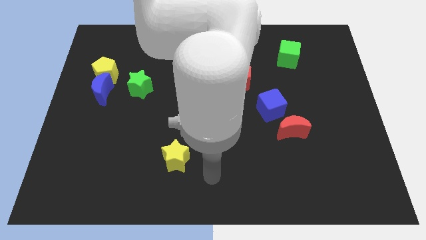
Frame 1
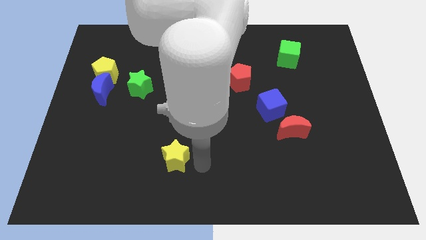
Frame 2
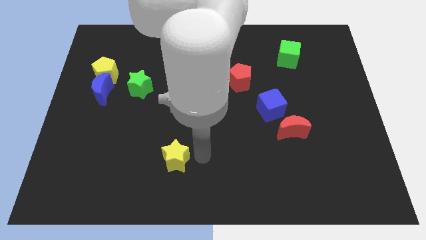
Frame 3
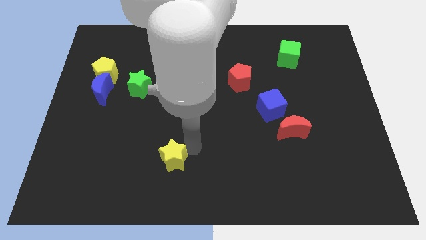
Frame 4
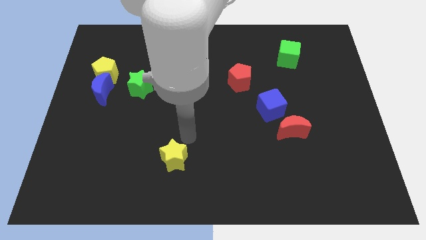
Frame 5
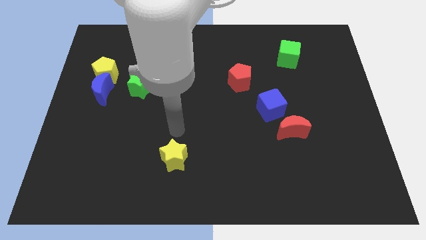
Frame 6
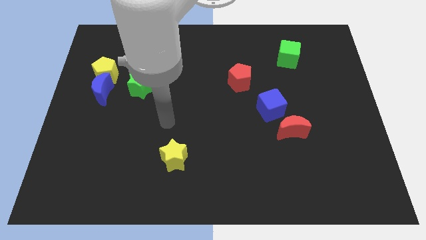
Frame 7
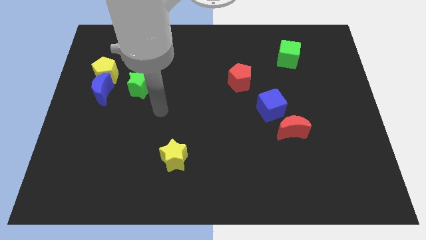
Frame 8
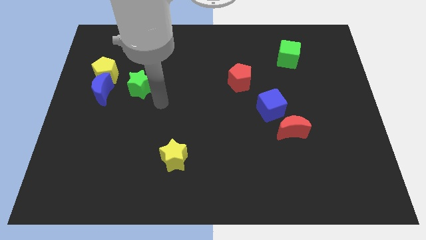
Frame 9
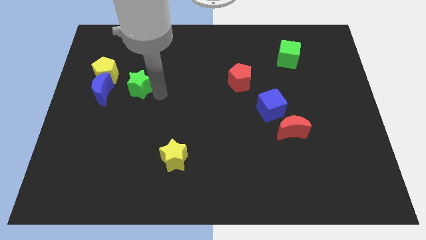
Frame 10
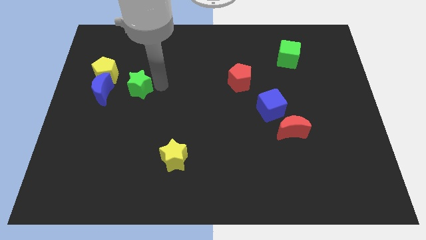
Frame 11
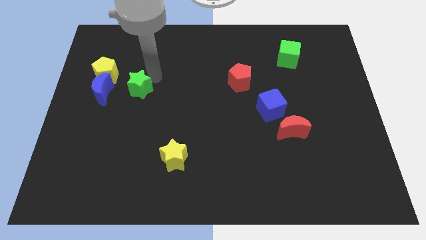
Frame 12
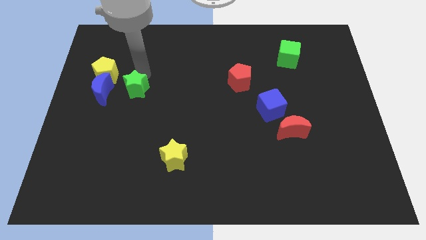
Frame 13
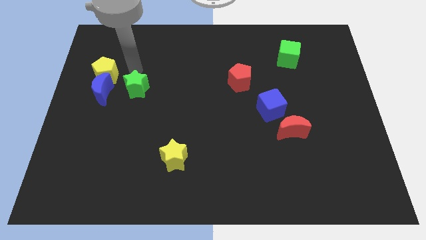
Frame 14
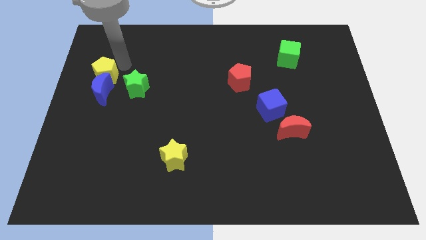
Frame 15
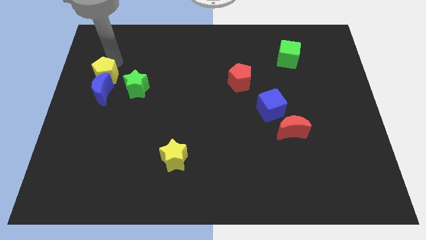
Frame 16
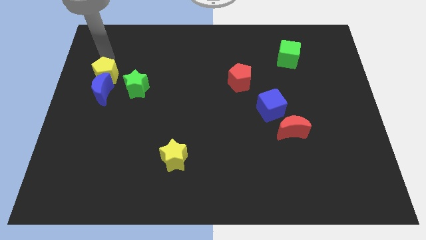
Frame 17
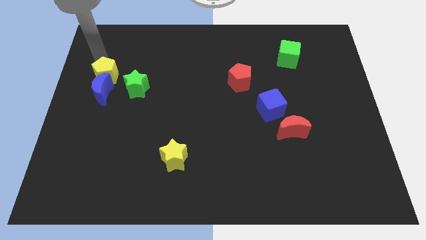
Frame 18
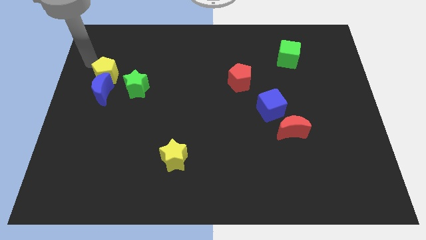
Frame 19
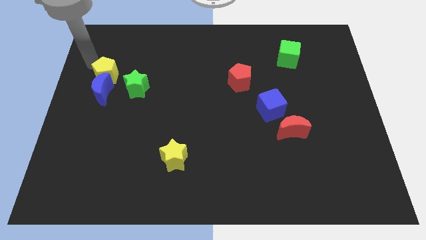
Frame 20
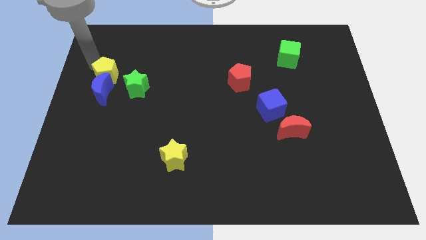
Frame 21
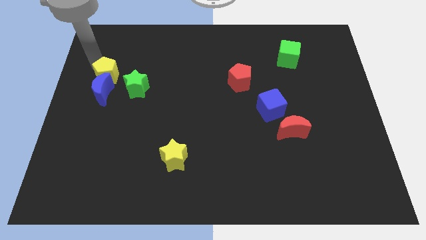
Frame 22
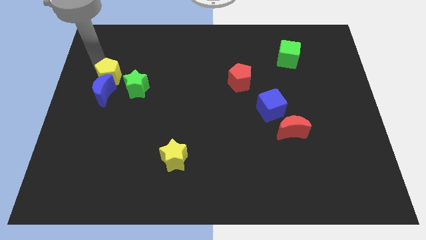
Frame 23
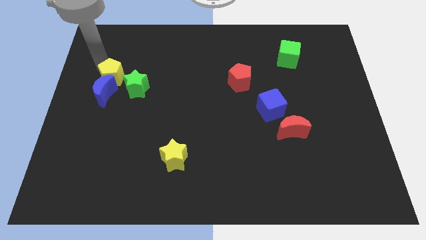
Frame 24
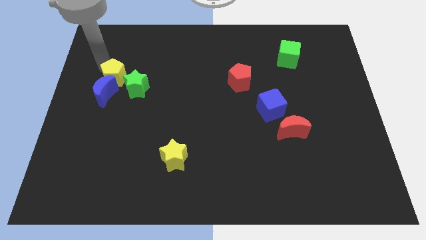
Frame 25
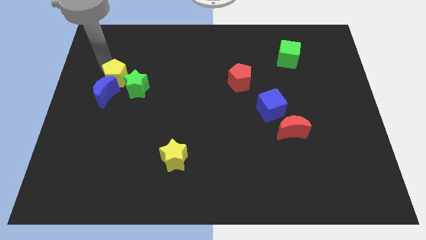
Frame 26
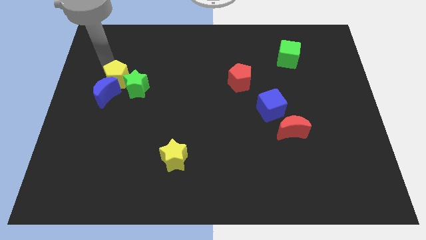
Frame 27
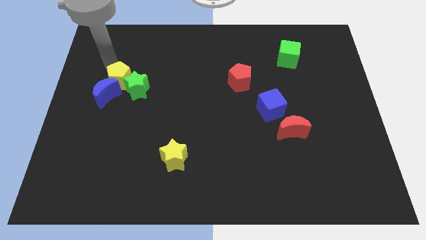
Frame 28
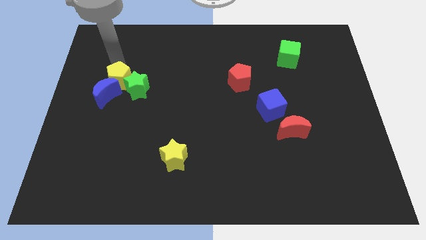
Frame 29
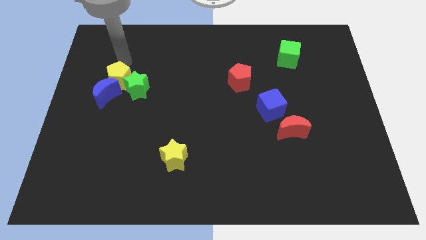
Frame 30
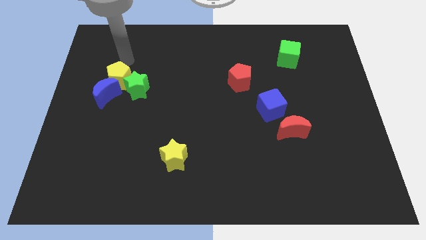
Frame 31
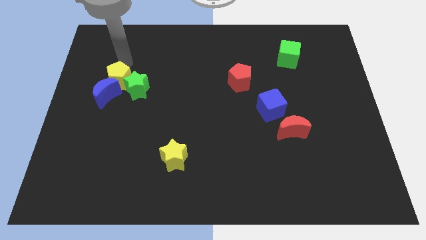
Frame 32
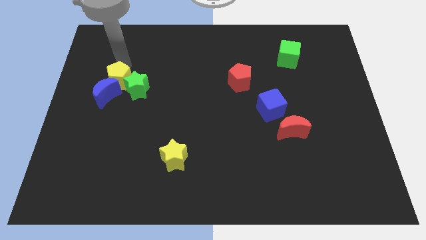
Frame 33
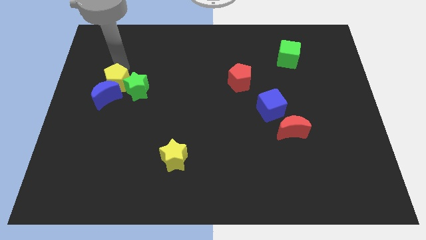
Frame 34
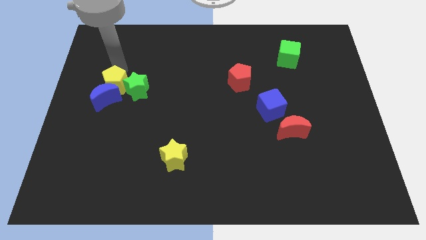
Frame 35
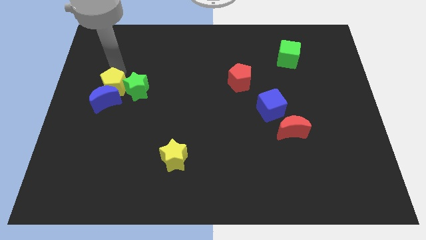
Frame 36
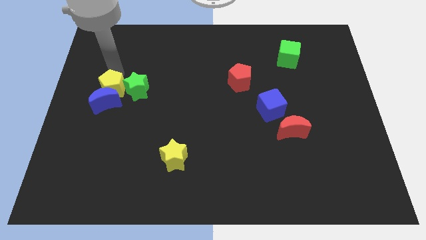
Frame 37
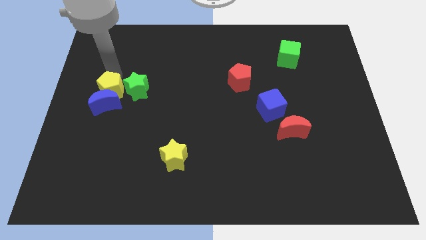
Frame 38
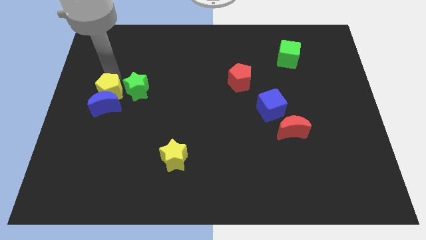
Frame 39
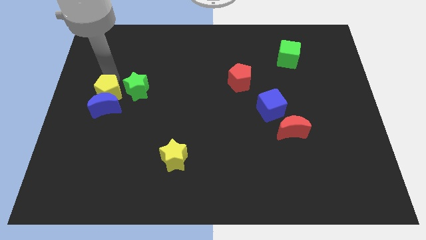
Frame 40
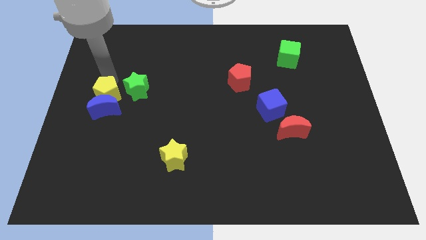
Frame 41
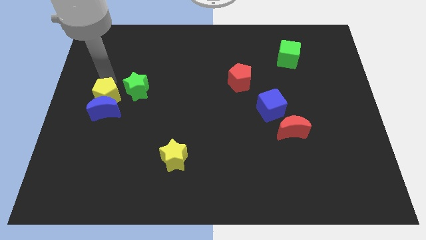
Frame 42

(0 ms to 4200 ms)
slightly slide the yellow pentagon down

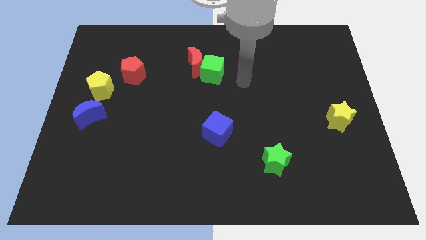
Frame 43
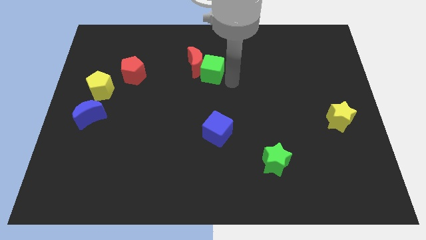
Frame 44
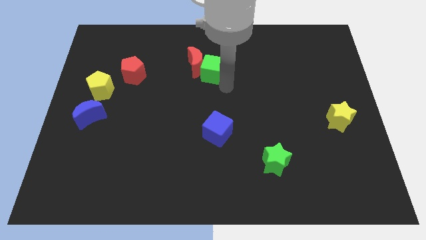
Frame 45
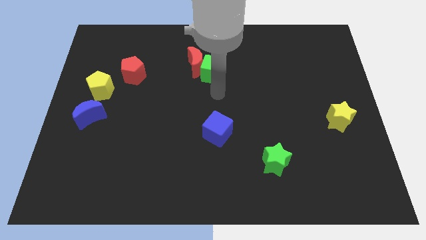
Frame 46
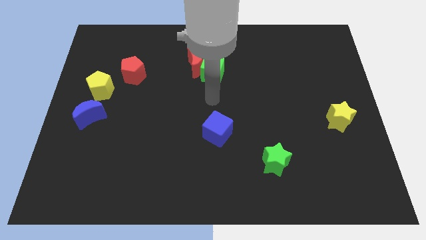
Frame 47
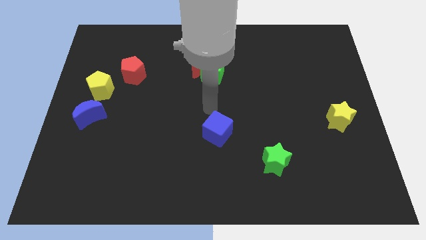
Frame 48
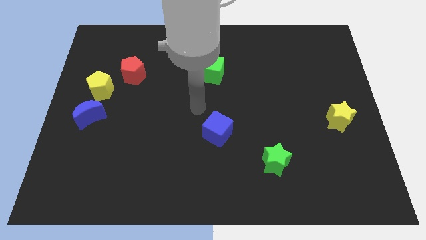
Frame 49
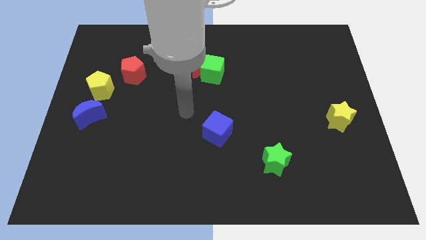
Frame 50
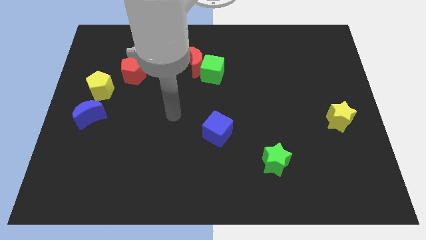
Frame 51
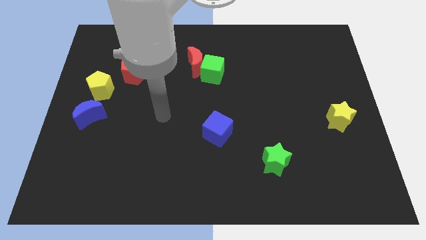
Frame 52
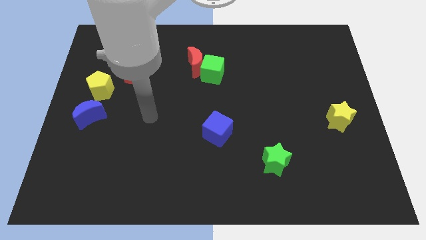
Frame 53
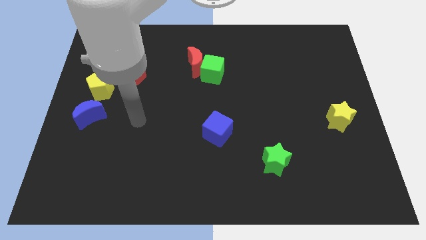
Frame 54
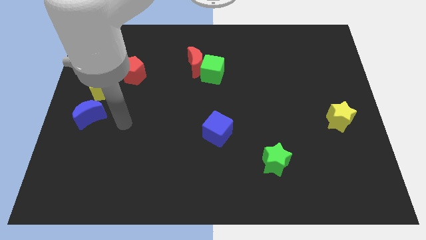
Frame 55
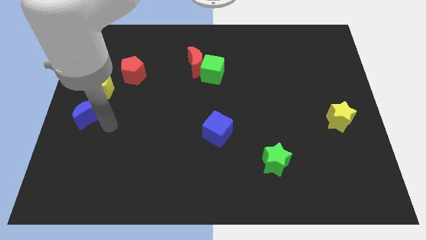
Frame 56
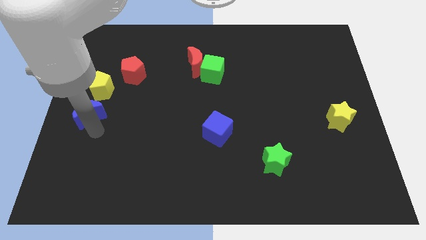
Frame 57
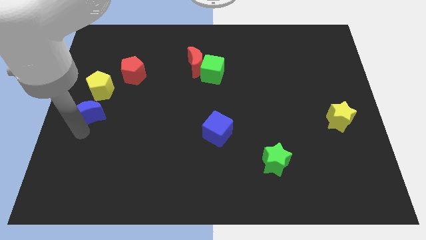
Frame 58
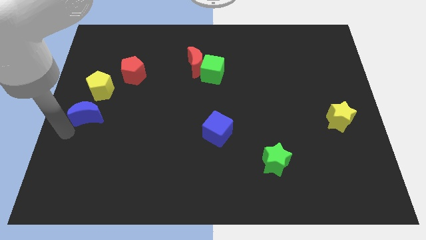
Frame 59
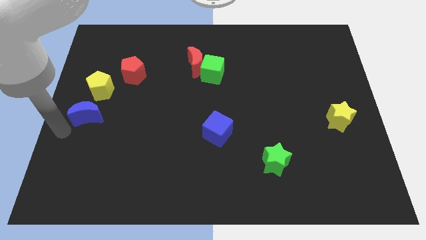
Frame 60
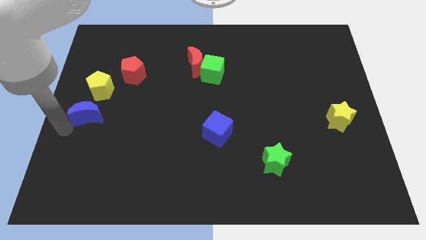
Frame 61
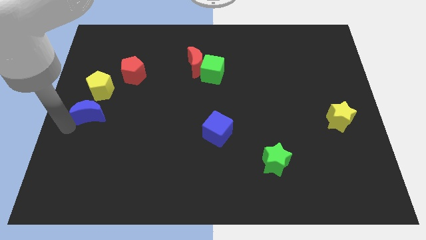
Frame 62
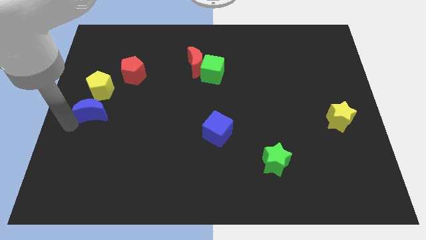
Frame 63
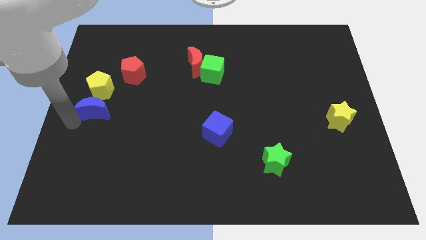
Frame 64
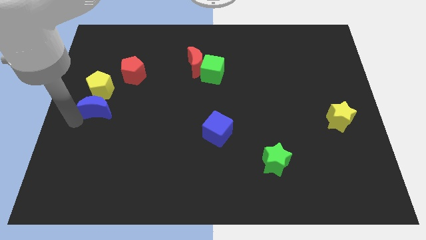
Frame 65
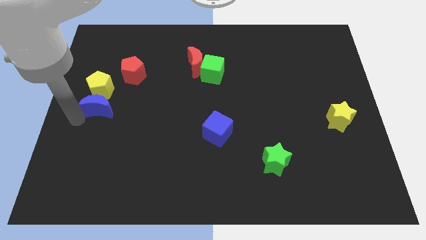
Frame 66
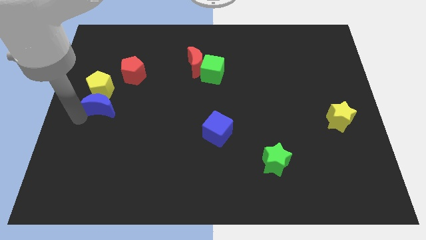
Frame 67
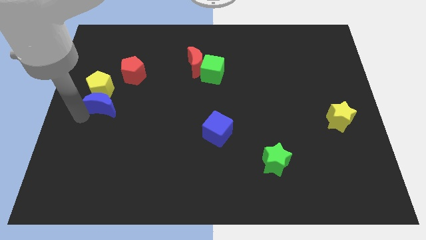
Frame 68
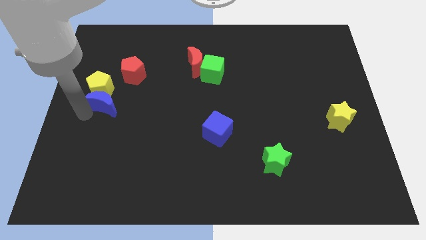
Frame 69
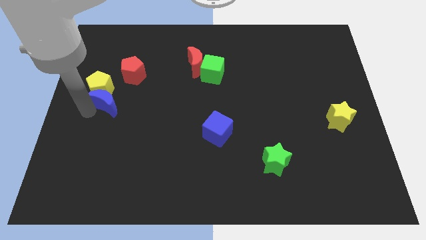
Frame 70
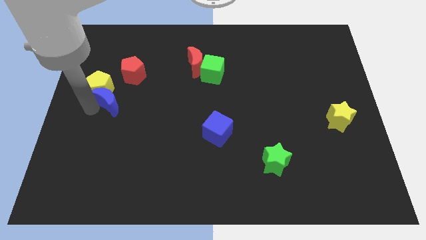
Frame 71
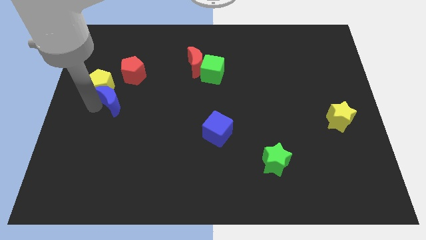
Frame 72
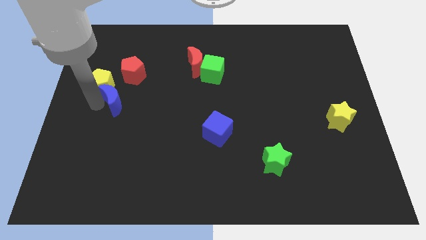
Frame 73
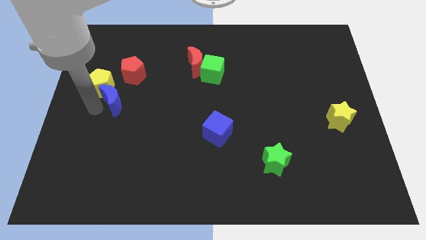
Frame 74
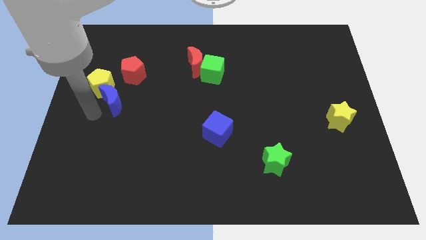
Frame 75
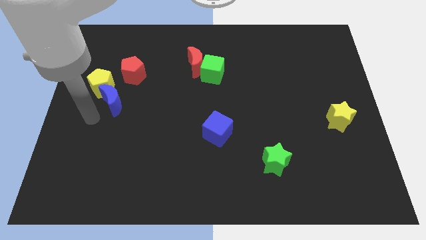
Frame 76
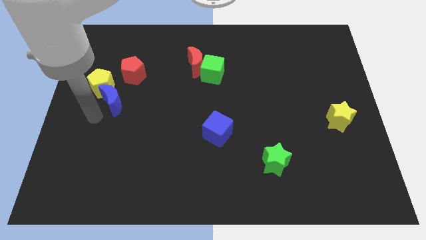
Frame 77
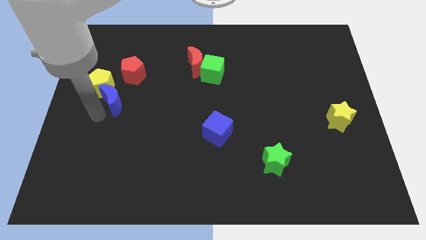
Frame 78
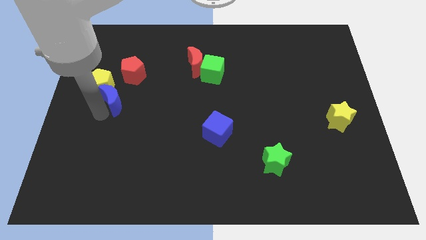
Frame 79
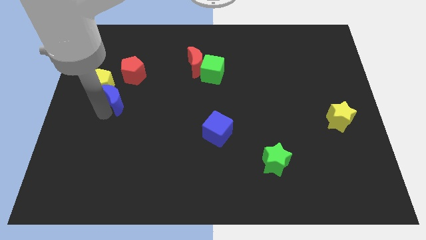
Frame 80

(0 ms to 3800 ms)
slightly move the blue moon up and to the right diagonally
